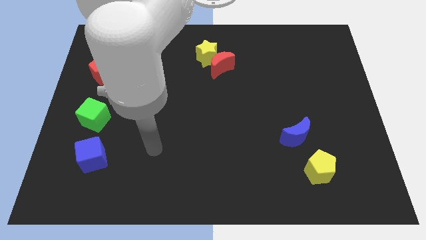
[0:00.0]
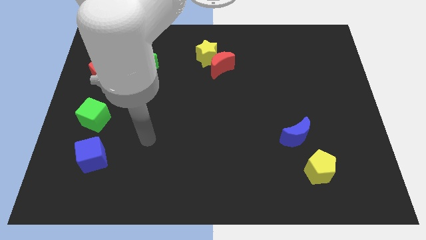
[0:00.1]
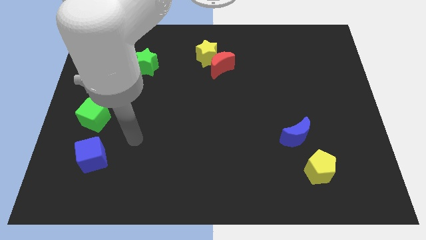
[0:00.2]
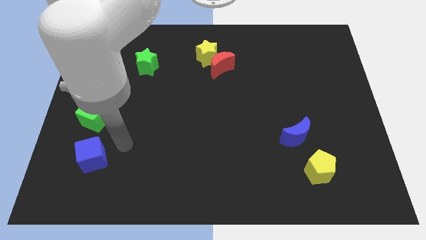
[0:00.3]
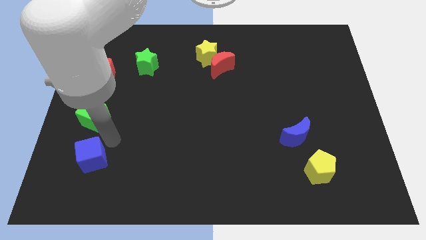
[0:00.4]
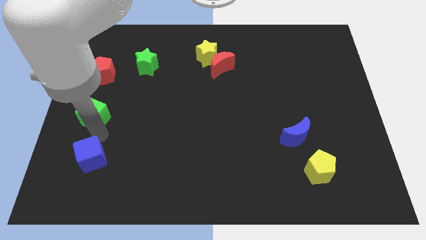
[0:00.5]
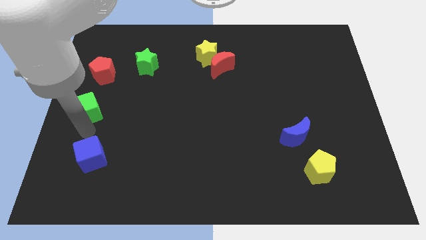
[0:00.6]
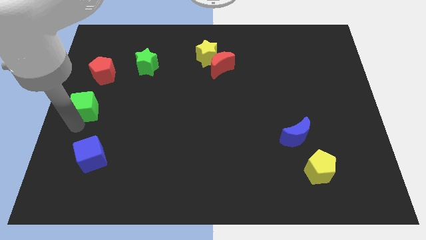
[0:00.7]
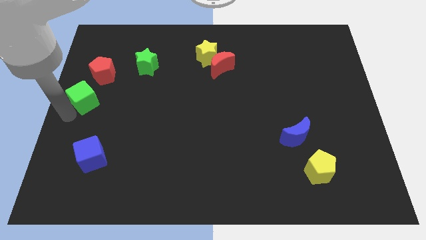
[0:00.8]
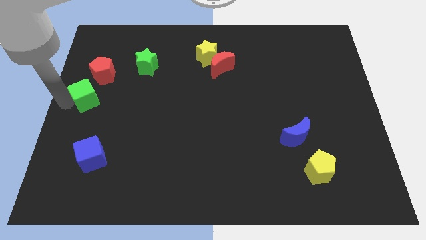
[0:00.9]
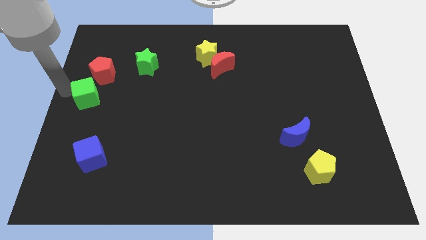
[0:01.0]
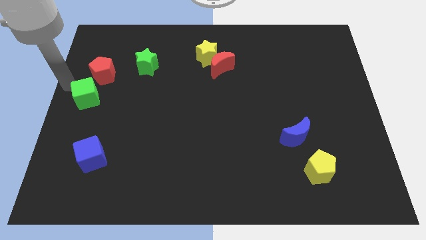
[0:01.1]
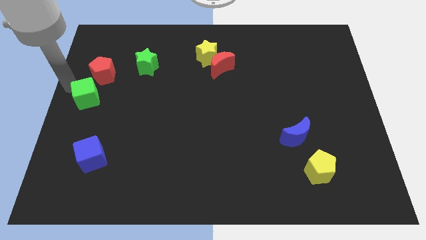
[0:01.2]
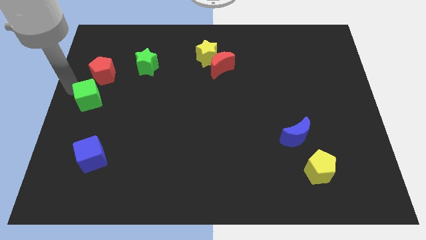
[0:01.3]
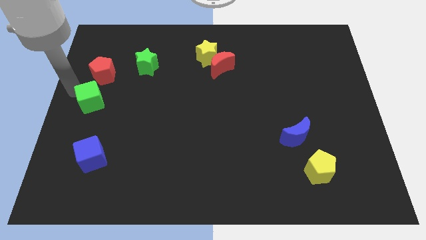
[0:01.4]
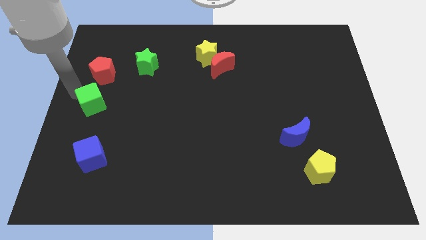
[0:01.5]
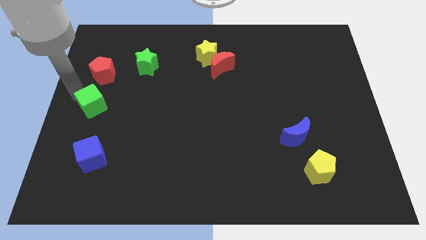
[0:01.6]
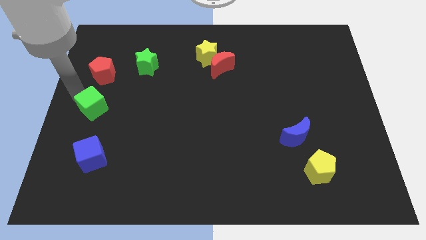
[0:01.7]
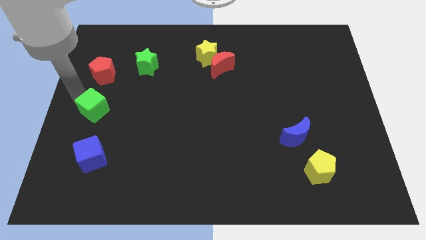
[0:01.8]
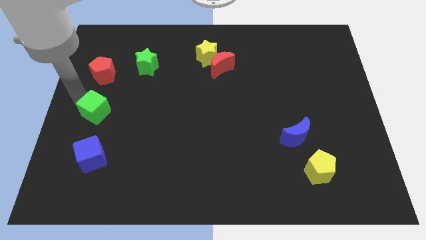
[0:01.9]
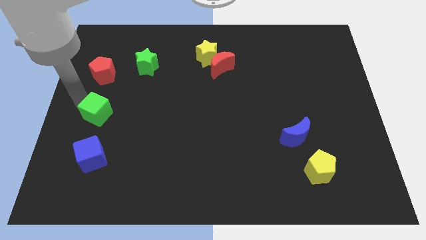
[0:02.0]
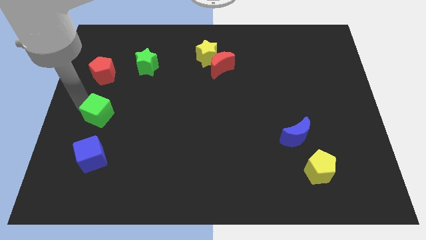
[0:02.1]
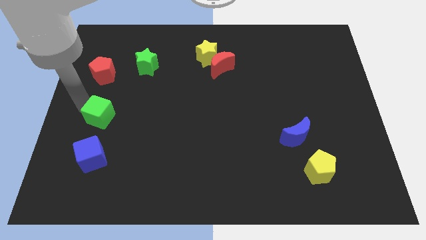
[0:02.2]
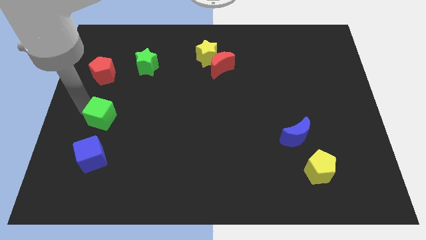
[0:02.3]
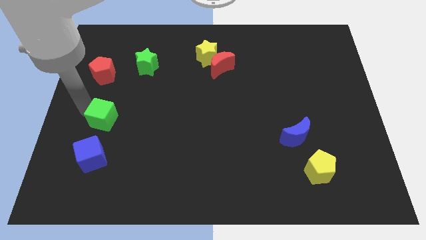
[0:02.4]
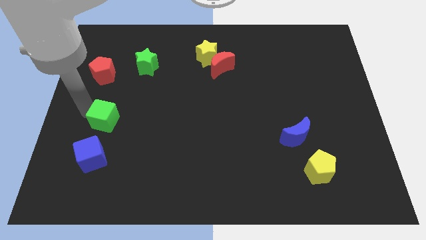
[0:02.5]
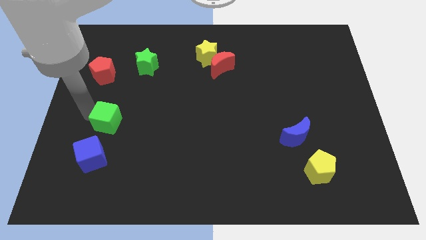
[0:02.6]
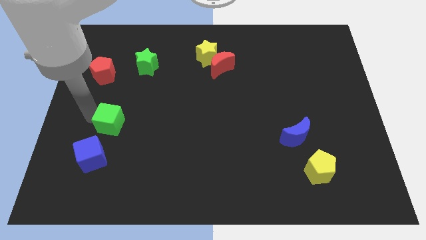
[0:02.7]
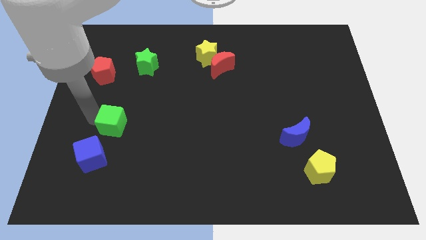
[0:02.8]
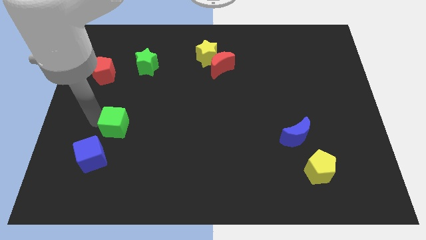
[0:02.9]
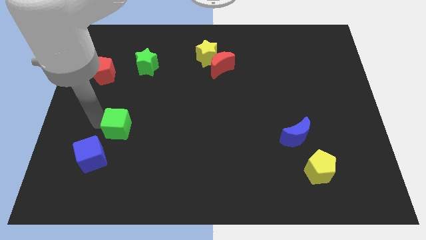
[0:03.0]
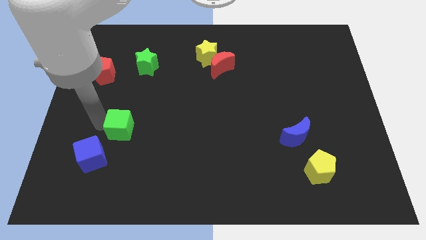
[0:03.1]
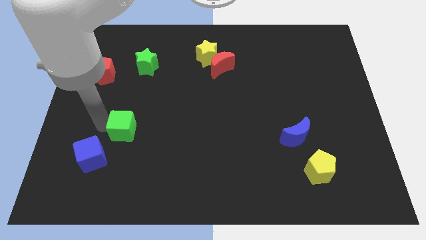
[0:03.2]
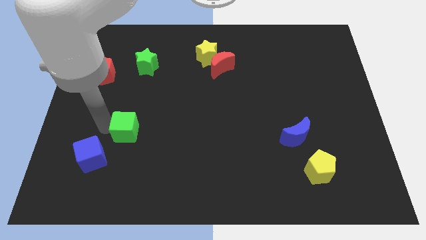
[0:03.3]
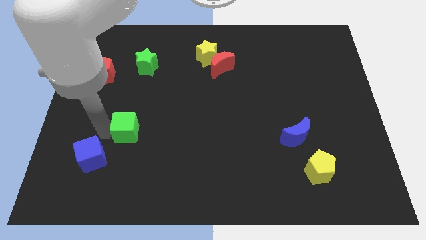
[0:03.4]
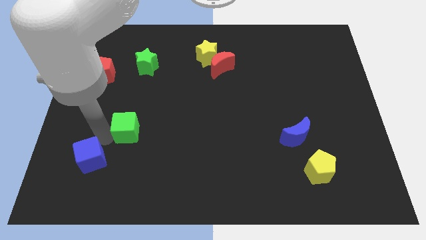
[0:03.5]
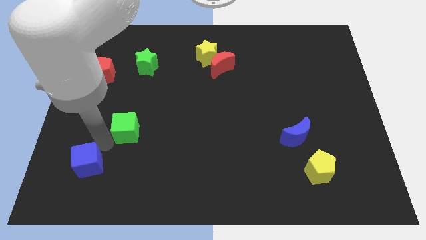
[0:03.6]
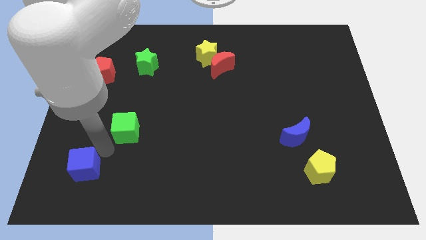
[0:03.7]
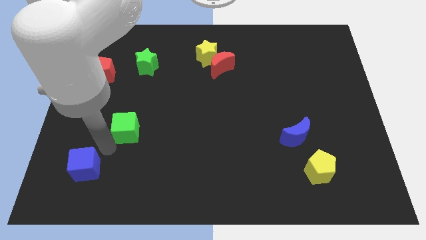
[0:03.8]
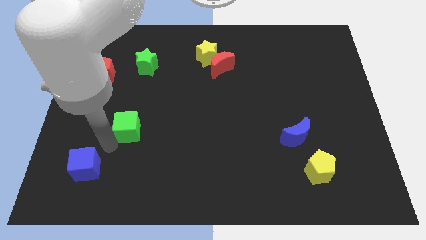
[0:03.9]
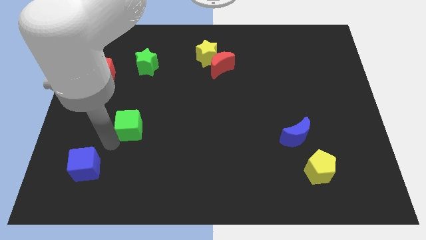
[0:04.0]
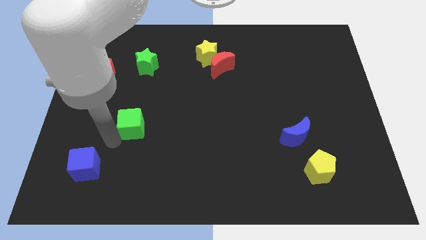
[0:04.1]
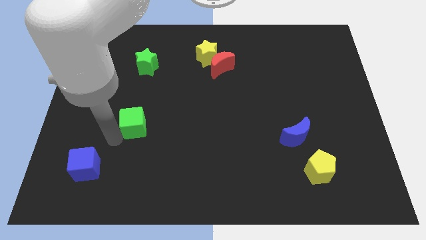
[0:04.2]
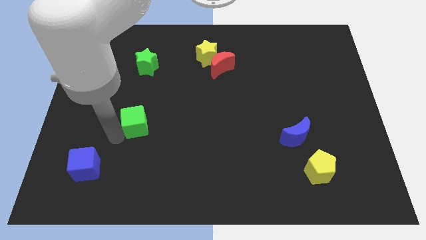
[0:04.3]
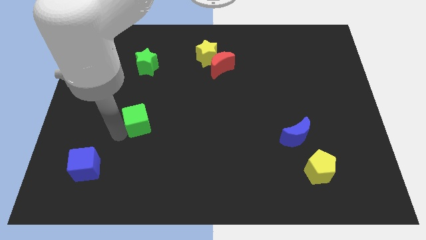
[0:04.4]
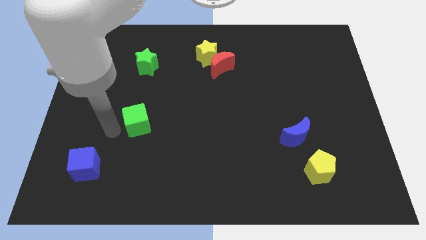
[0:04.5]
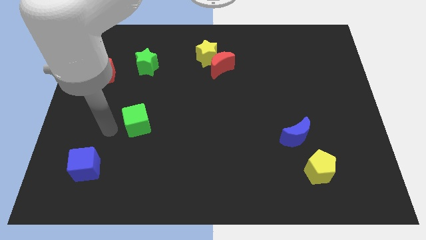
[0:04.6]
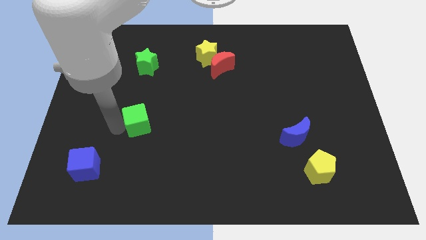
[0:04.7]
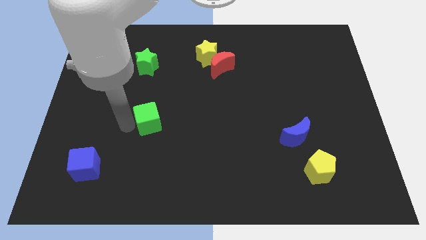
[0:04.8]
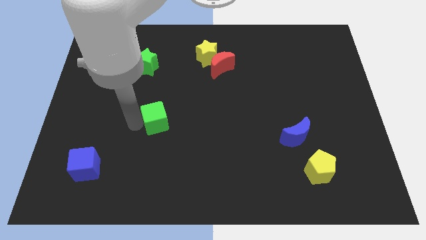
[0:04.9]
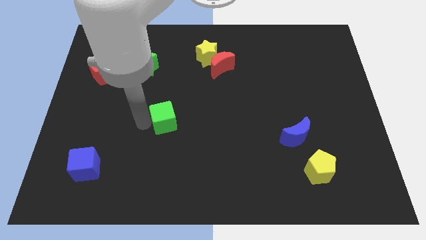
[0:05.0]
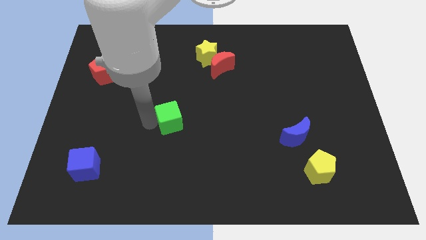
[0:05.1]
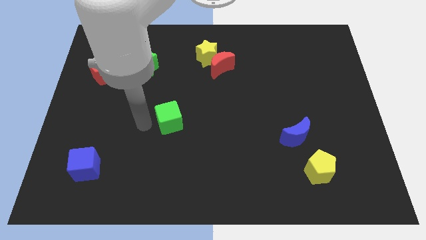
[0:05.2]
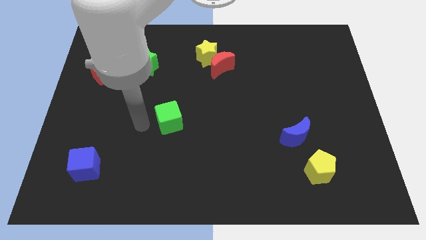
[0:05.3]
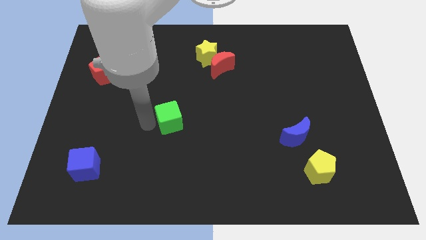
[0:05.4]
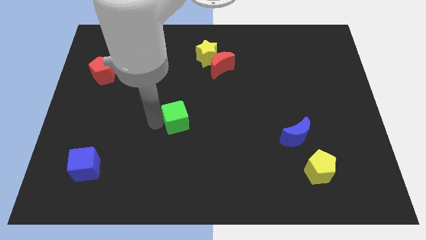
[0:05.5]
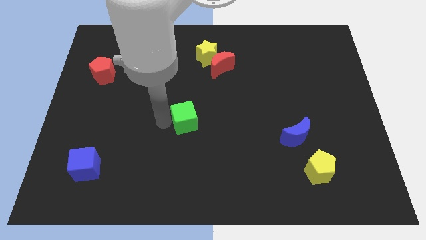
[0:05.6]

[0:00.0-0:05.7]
move the green cube to the right

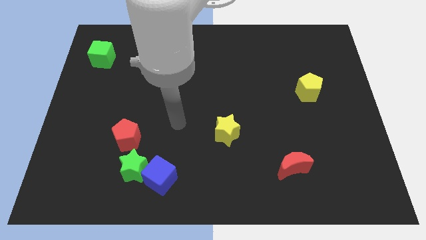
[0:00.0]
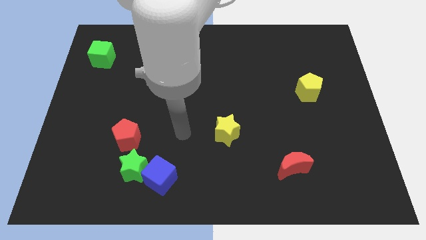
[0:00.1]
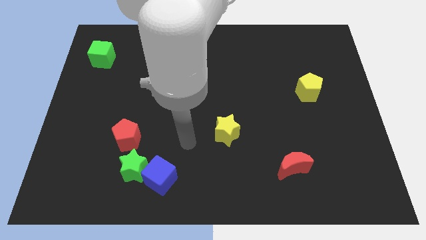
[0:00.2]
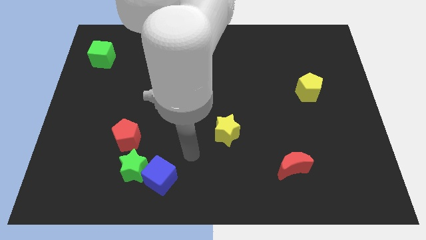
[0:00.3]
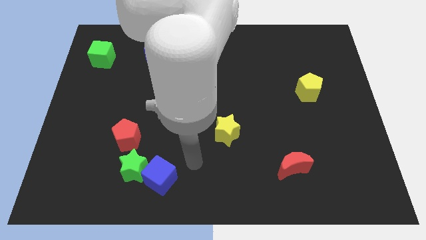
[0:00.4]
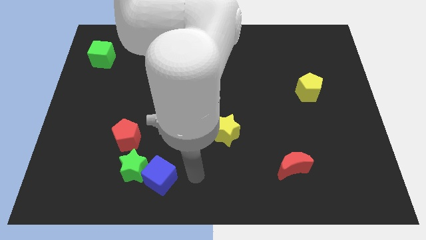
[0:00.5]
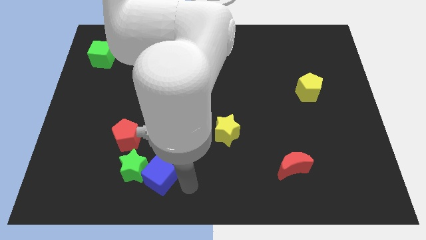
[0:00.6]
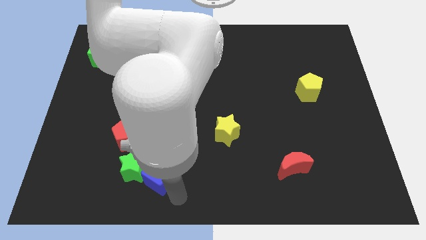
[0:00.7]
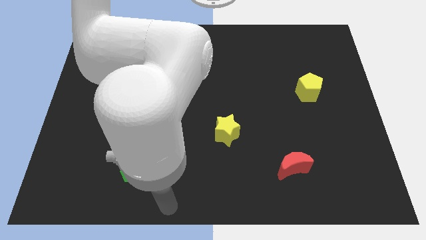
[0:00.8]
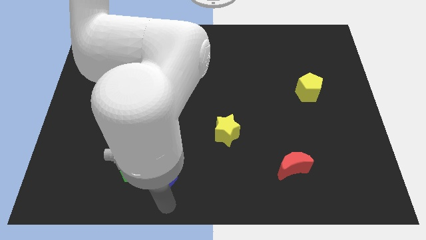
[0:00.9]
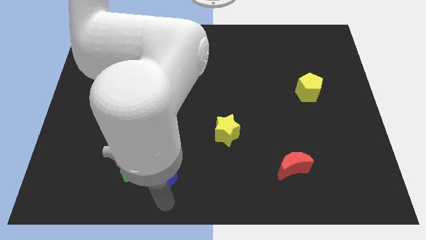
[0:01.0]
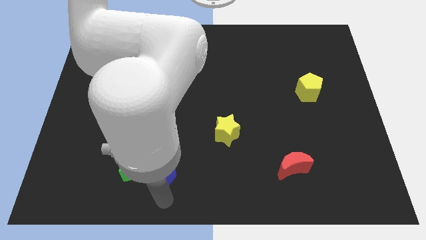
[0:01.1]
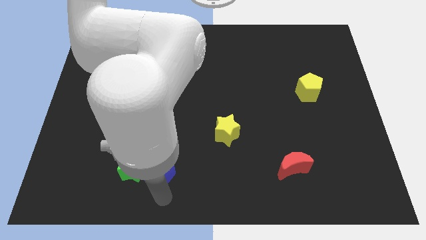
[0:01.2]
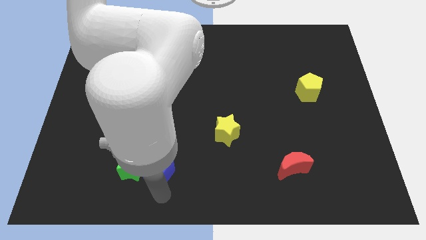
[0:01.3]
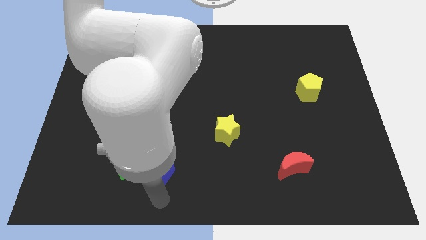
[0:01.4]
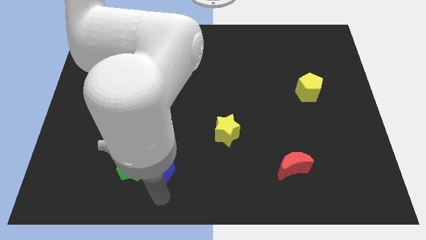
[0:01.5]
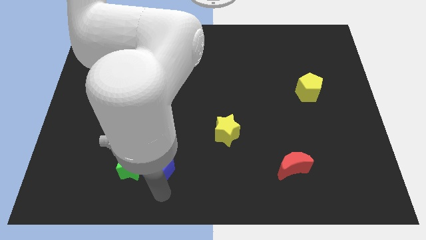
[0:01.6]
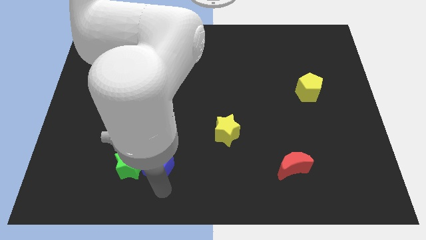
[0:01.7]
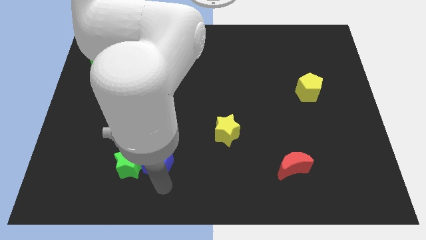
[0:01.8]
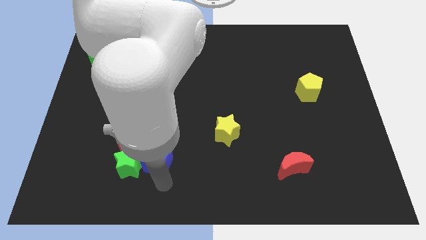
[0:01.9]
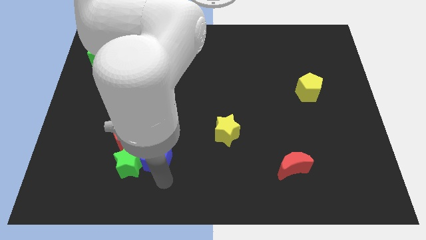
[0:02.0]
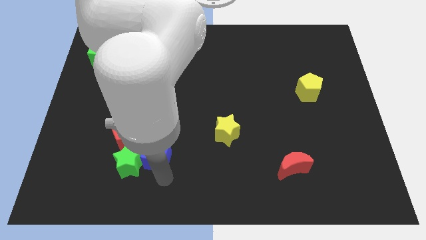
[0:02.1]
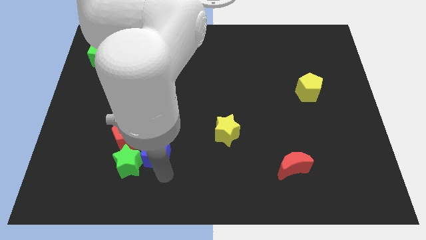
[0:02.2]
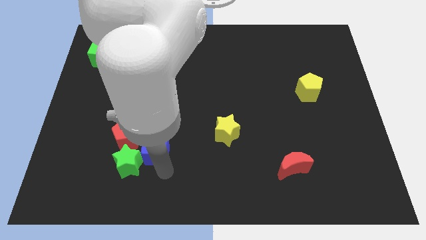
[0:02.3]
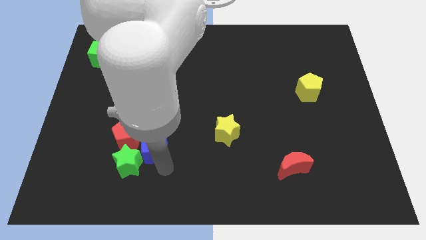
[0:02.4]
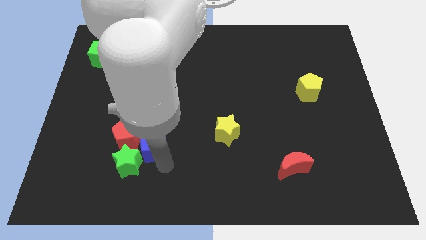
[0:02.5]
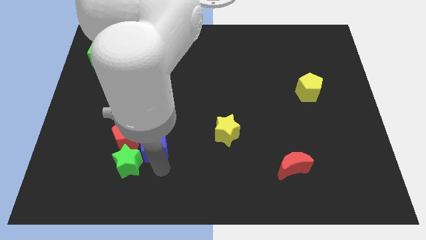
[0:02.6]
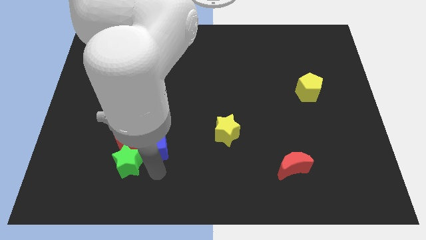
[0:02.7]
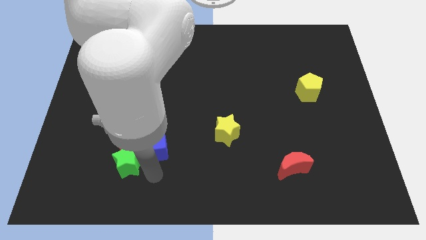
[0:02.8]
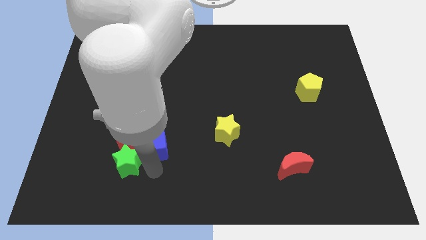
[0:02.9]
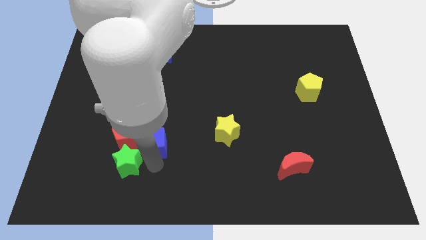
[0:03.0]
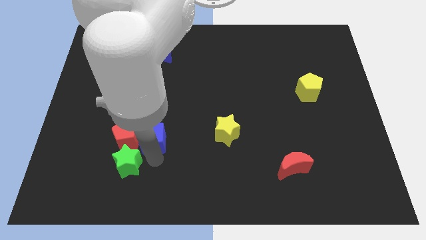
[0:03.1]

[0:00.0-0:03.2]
move the blue cube somewhat upwards and then left
